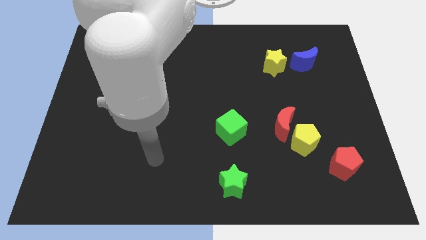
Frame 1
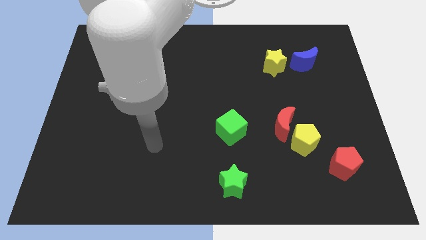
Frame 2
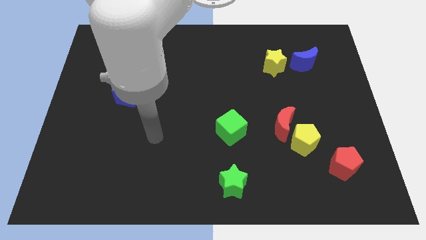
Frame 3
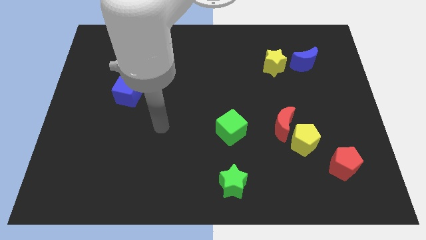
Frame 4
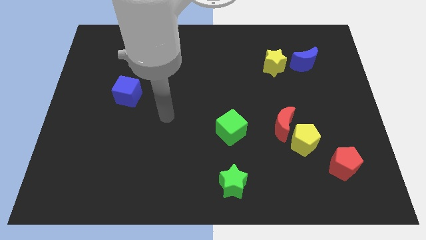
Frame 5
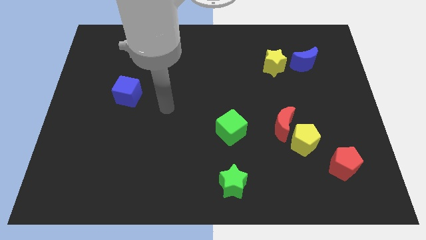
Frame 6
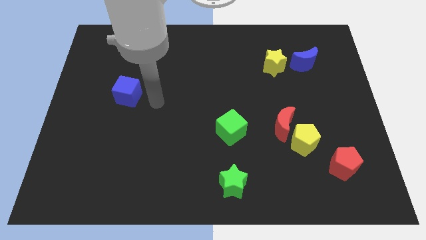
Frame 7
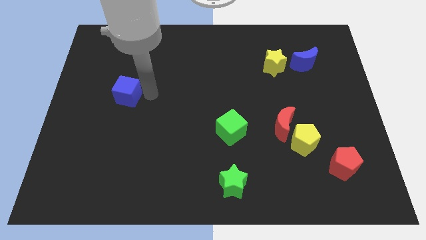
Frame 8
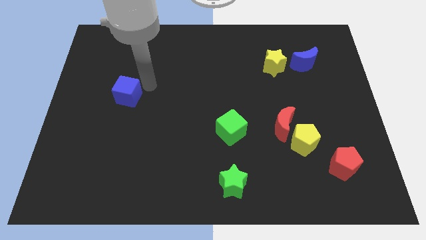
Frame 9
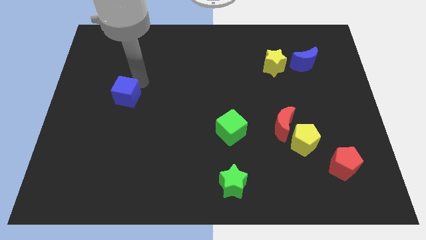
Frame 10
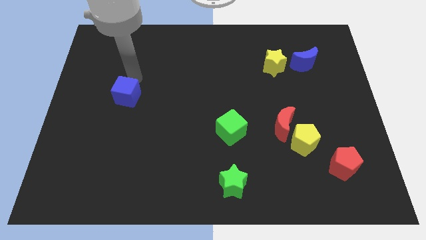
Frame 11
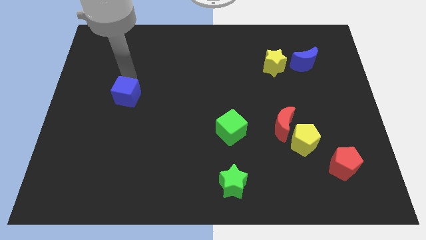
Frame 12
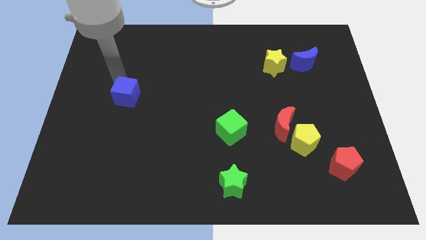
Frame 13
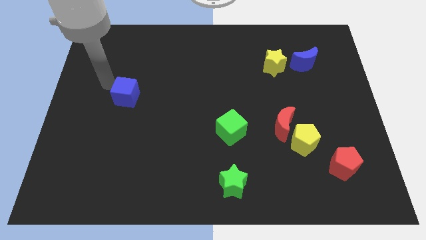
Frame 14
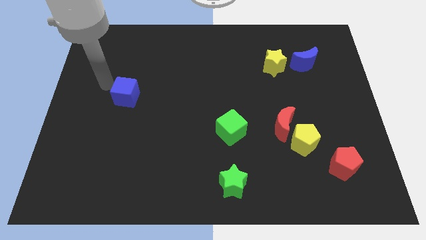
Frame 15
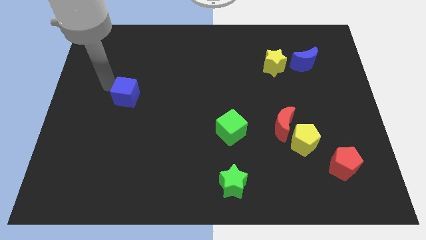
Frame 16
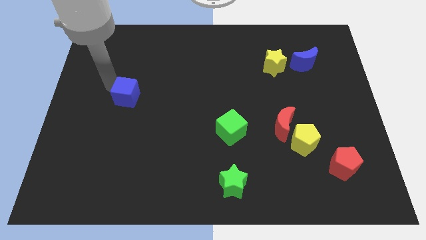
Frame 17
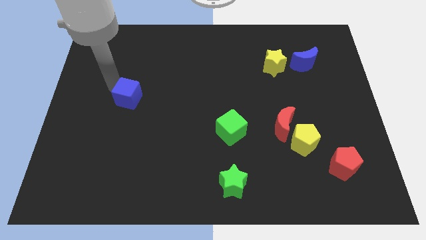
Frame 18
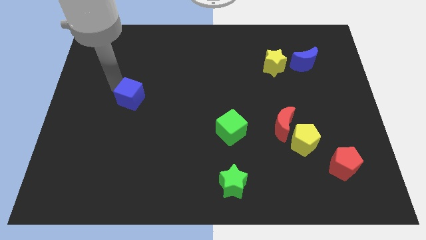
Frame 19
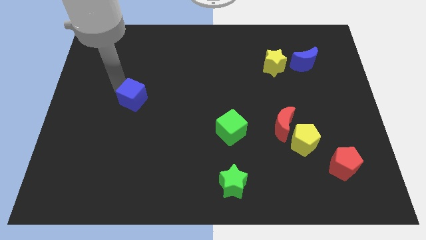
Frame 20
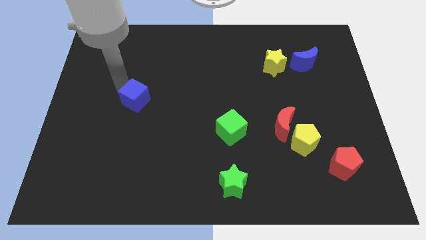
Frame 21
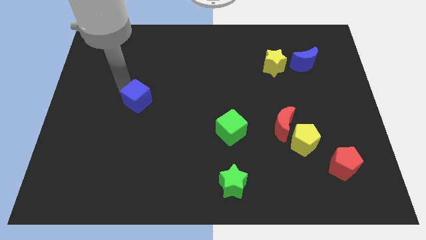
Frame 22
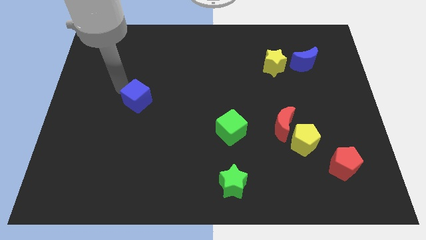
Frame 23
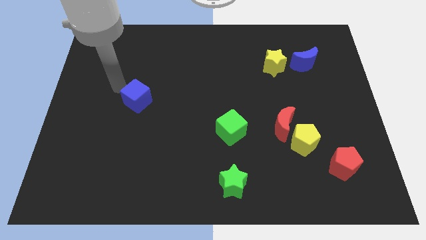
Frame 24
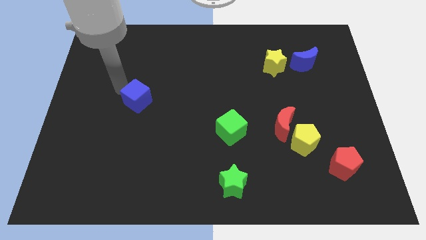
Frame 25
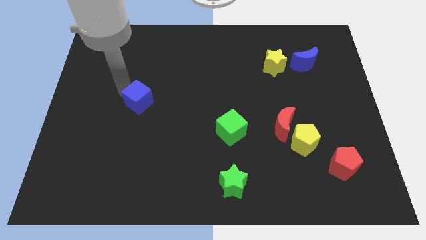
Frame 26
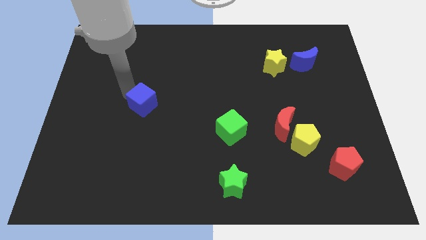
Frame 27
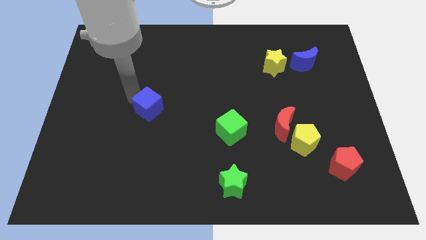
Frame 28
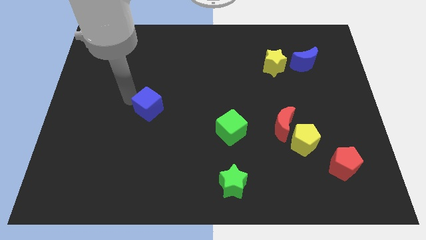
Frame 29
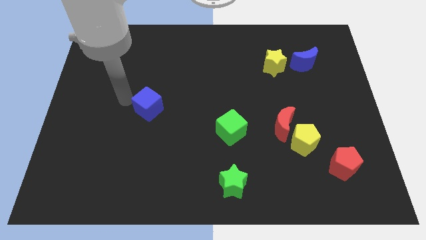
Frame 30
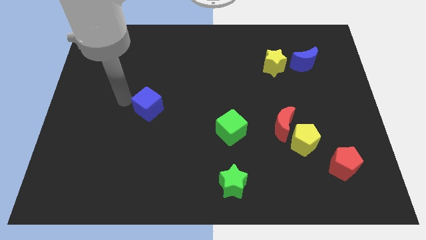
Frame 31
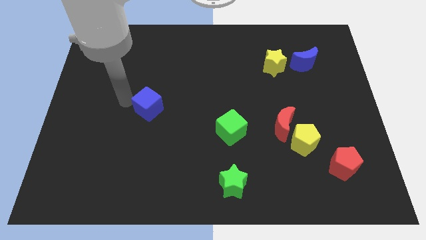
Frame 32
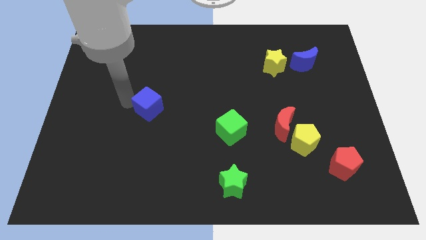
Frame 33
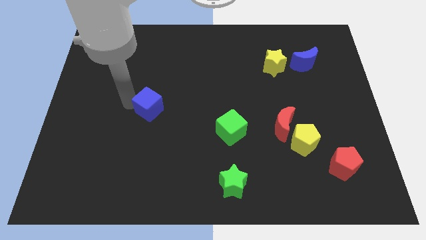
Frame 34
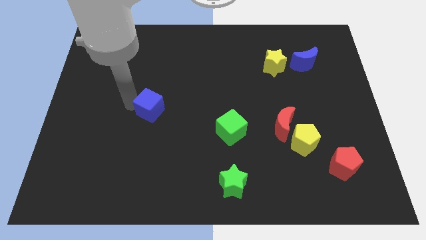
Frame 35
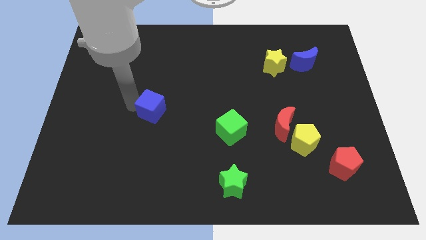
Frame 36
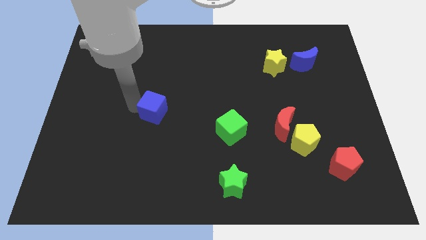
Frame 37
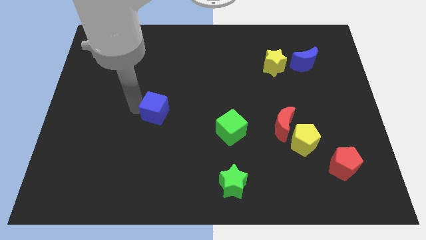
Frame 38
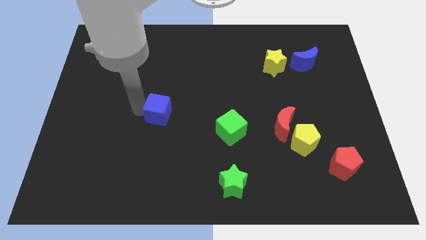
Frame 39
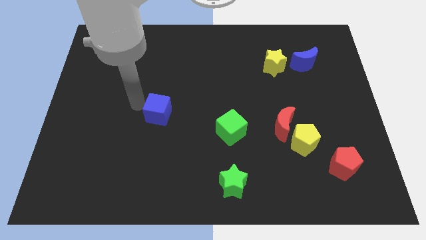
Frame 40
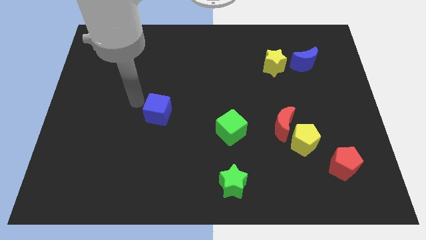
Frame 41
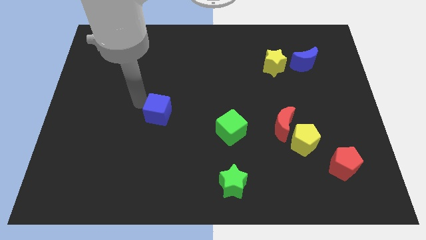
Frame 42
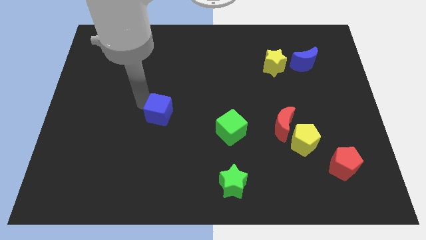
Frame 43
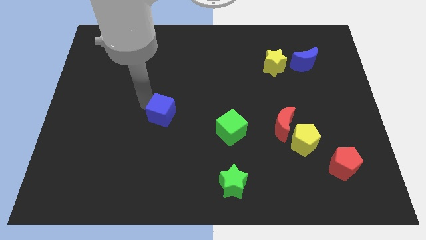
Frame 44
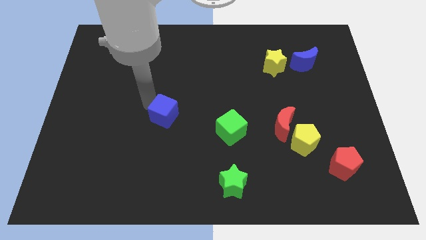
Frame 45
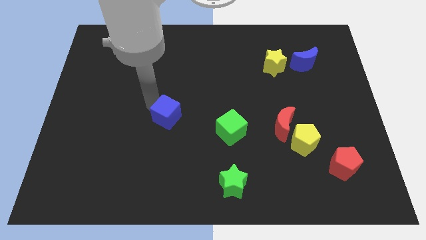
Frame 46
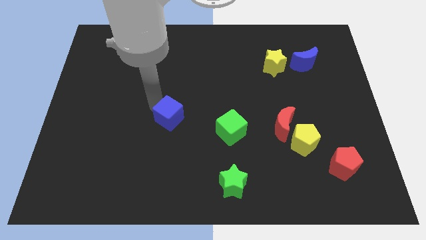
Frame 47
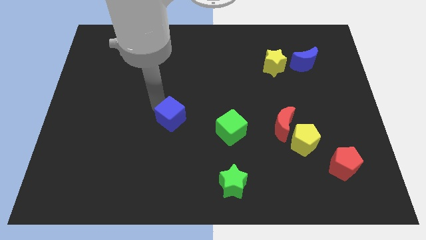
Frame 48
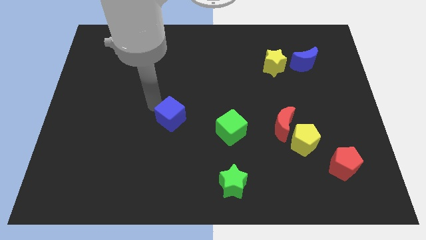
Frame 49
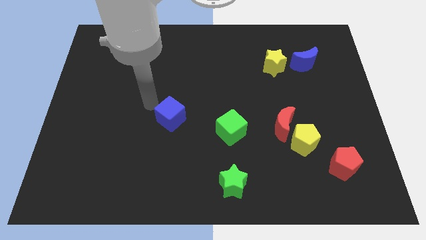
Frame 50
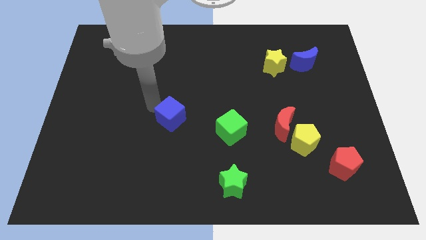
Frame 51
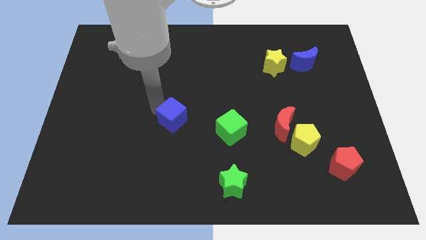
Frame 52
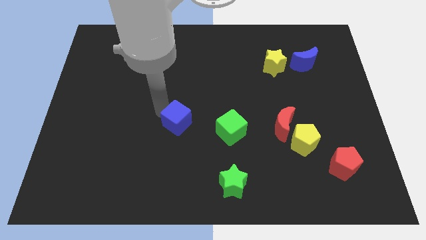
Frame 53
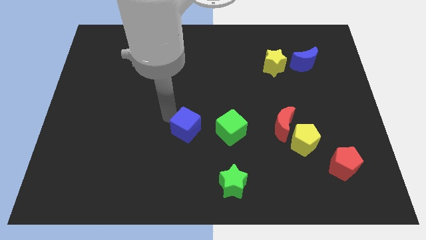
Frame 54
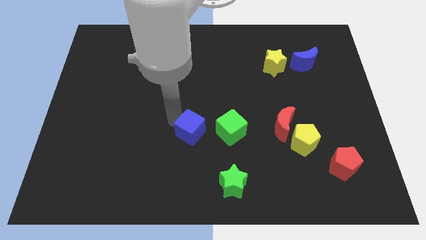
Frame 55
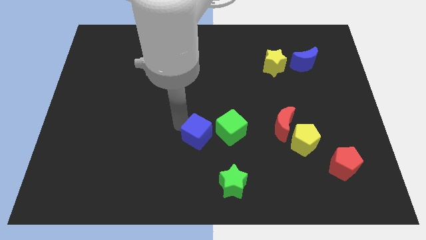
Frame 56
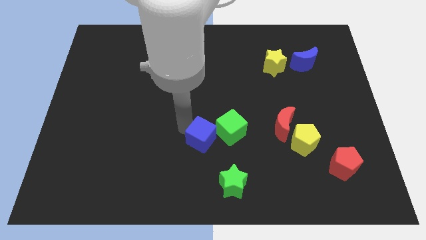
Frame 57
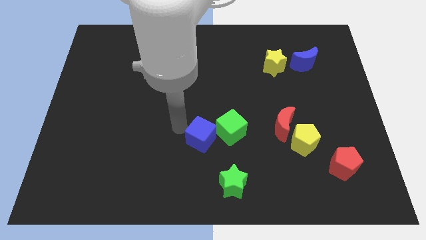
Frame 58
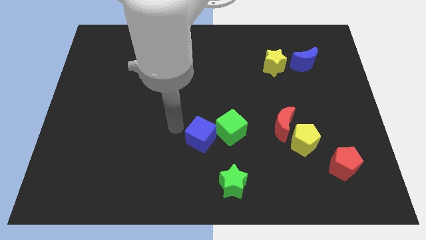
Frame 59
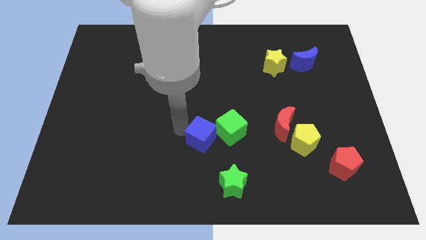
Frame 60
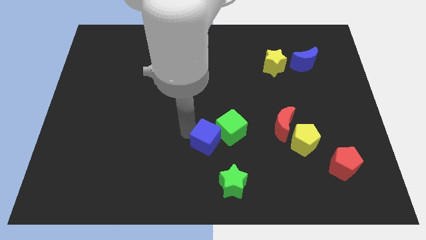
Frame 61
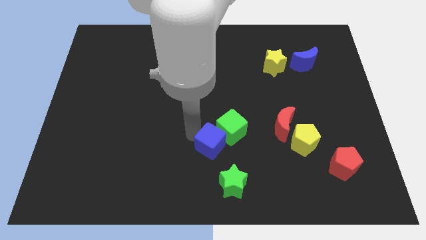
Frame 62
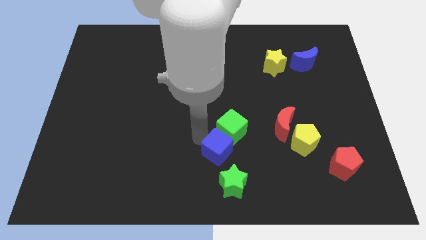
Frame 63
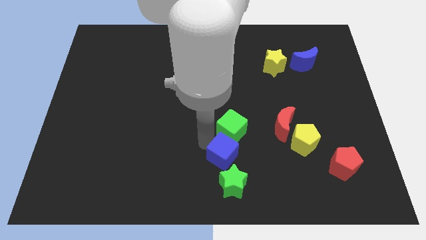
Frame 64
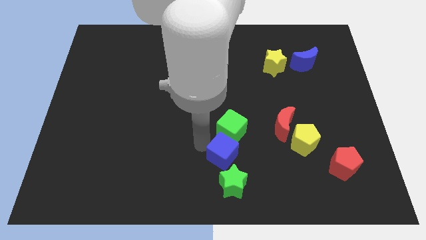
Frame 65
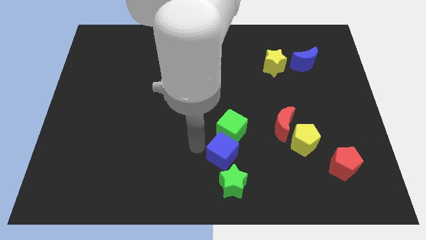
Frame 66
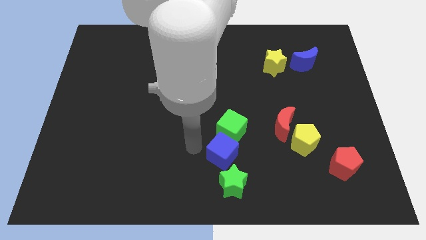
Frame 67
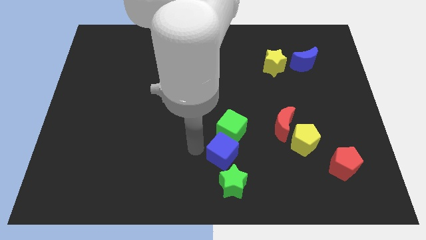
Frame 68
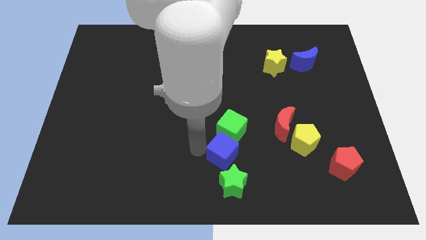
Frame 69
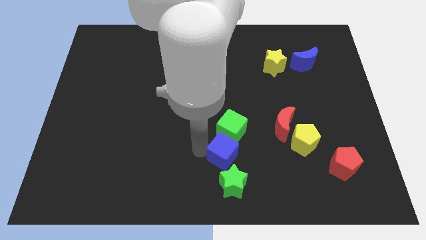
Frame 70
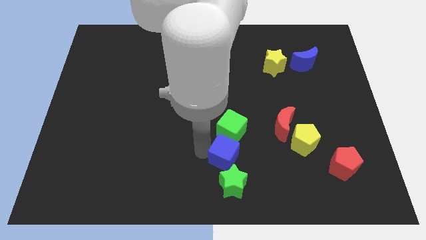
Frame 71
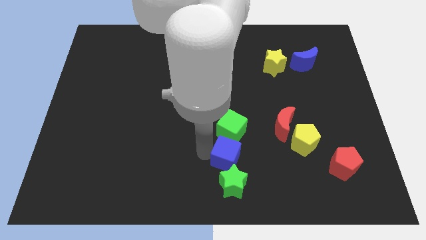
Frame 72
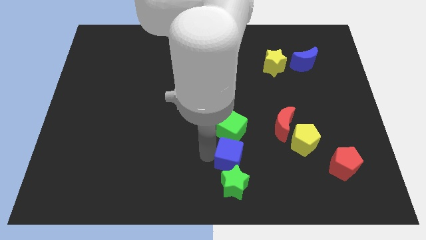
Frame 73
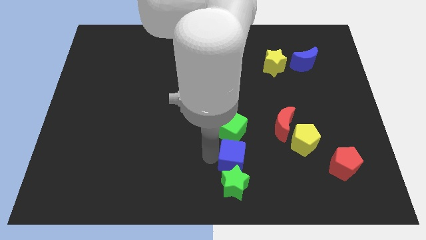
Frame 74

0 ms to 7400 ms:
move the blue cube to the top right of the green star
